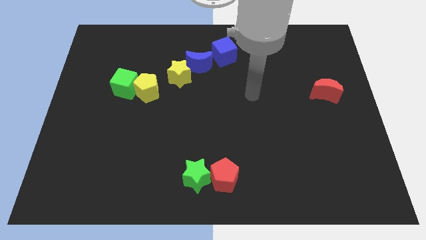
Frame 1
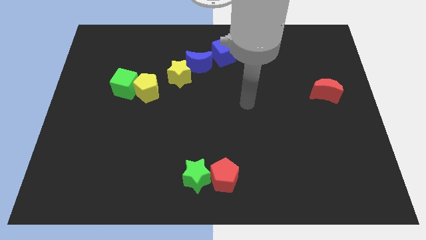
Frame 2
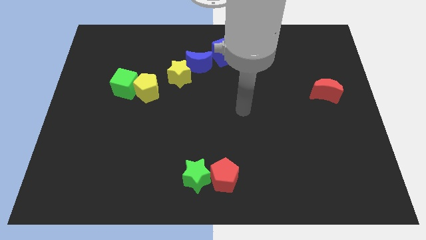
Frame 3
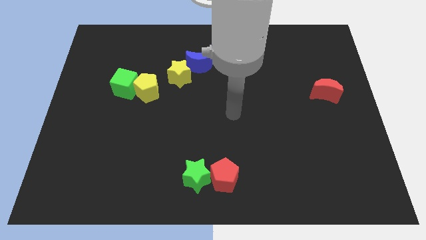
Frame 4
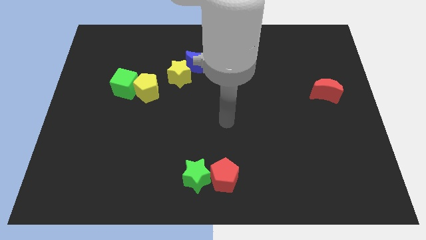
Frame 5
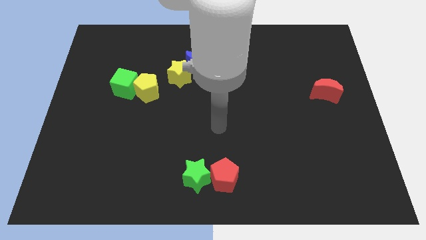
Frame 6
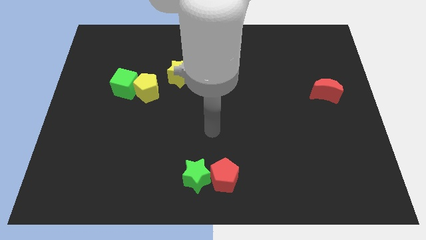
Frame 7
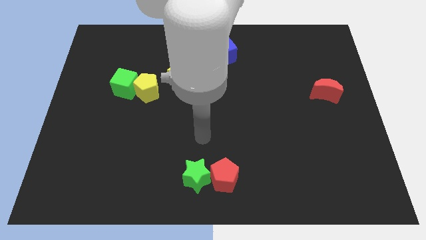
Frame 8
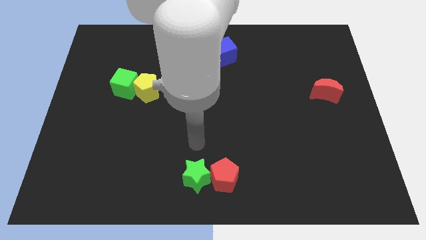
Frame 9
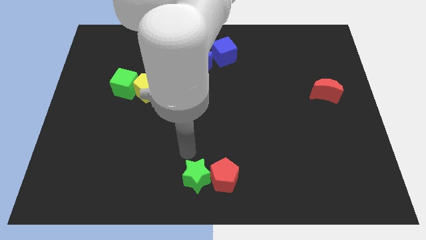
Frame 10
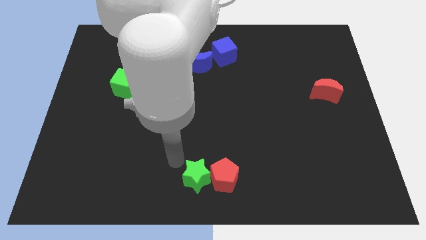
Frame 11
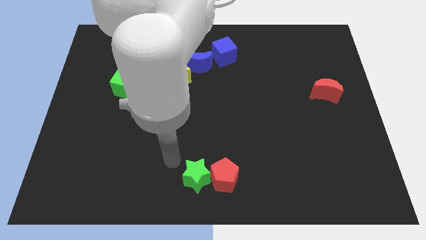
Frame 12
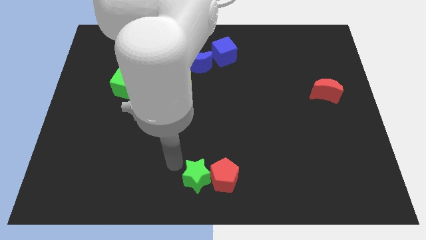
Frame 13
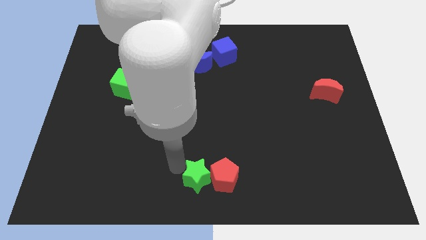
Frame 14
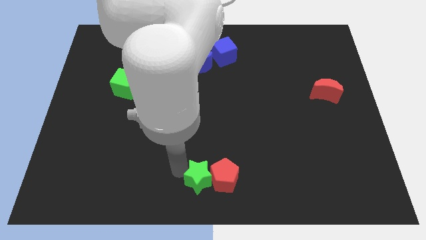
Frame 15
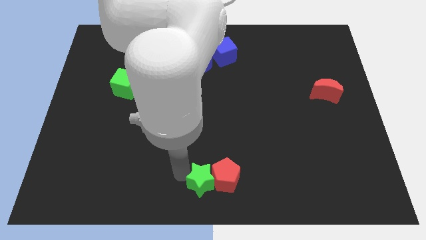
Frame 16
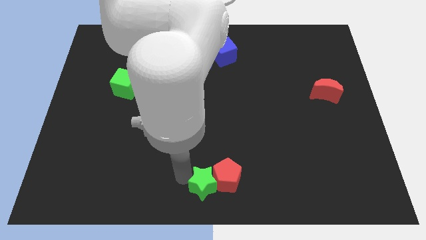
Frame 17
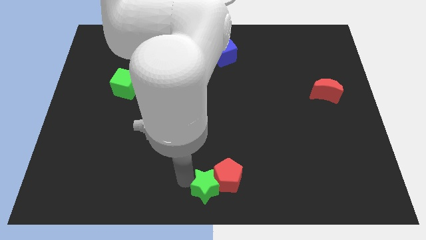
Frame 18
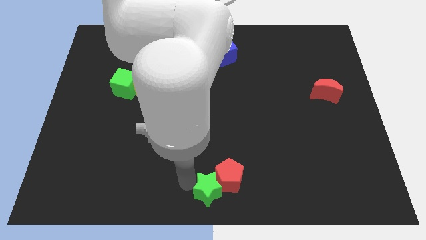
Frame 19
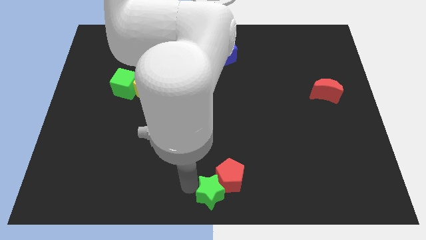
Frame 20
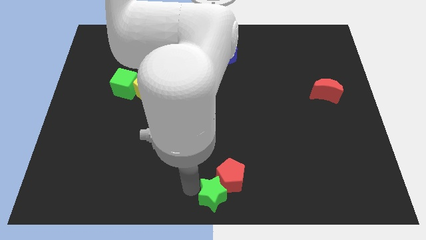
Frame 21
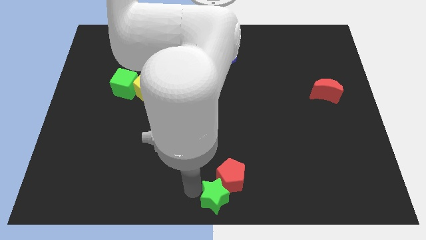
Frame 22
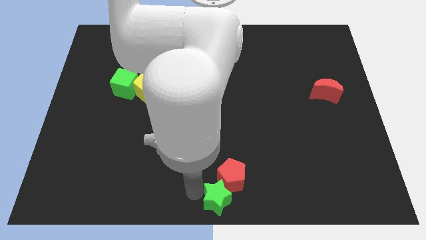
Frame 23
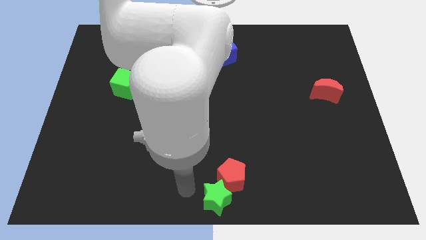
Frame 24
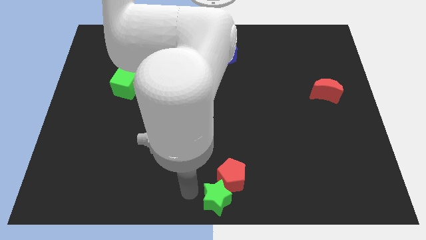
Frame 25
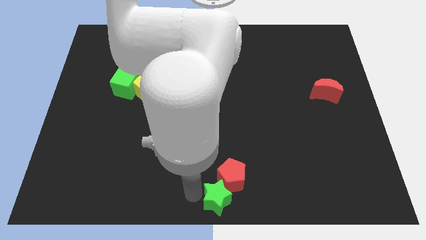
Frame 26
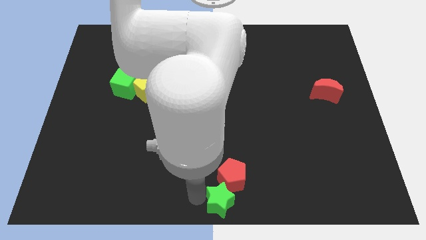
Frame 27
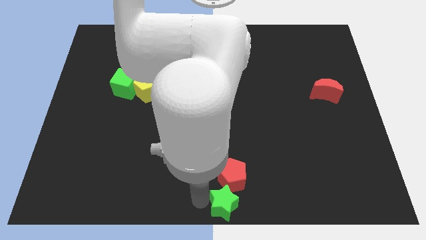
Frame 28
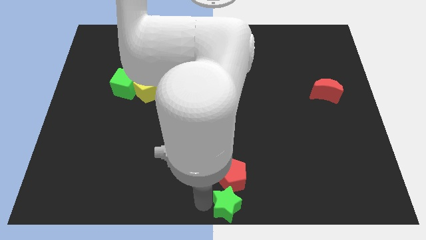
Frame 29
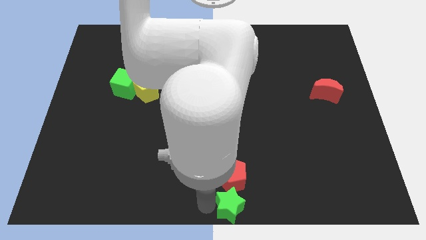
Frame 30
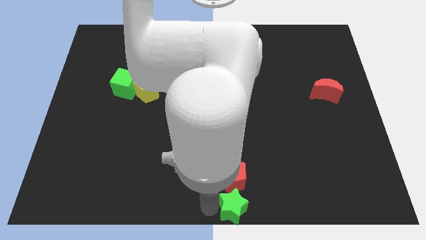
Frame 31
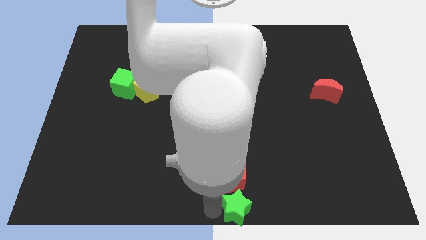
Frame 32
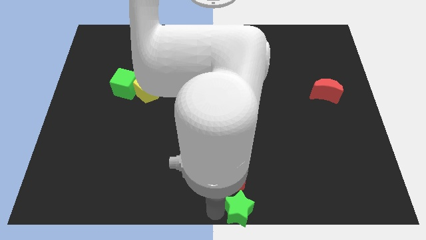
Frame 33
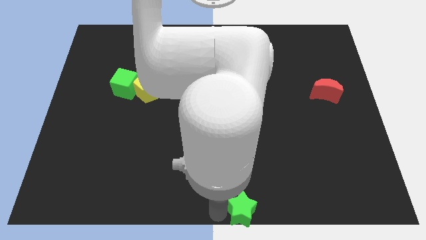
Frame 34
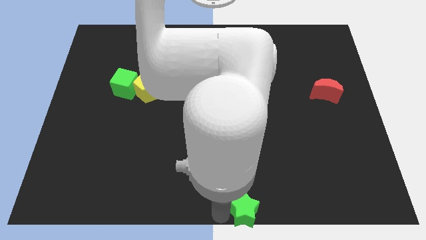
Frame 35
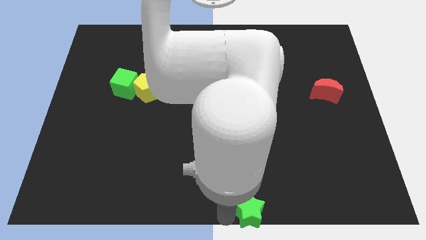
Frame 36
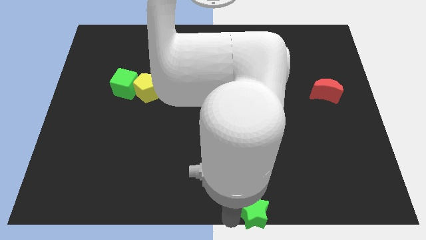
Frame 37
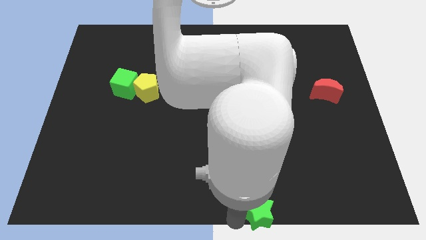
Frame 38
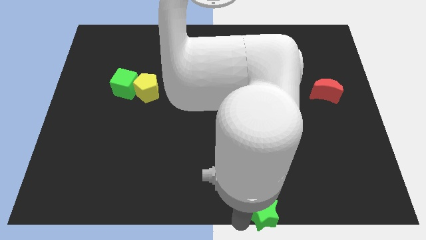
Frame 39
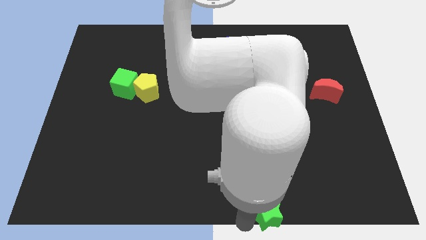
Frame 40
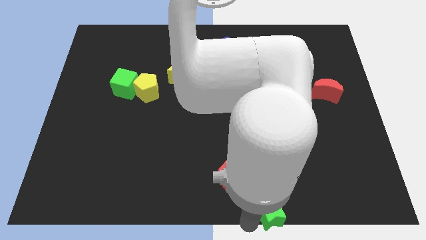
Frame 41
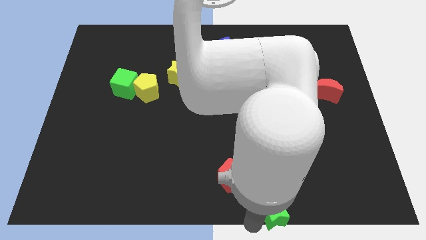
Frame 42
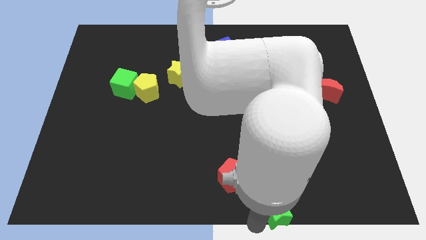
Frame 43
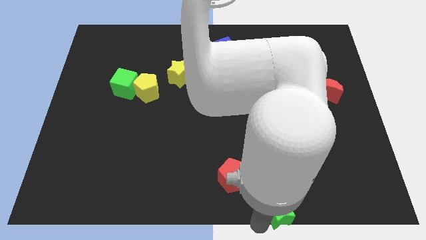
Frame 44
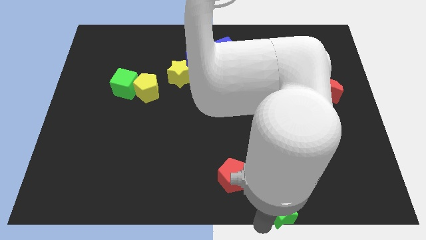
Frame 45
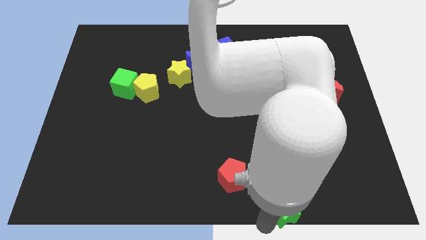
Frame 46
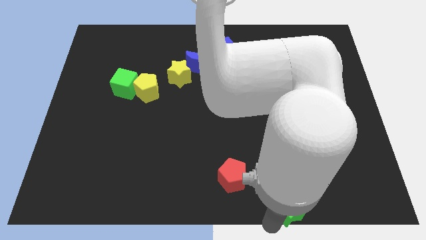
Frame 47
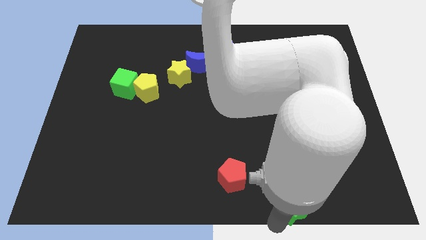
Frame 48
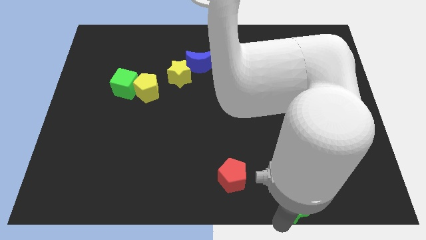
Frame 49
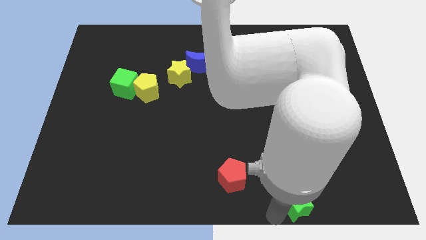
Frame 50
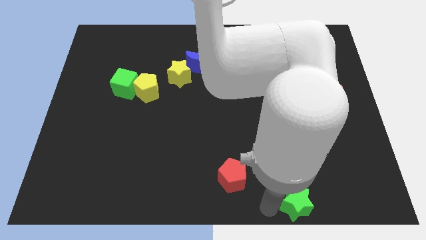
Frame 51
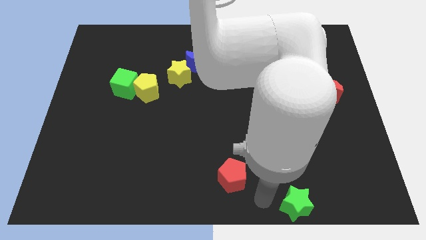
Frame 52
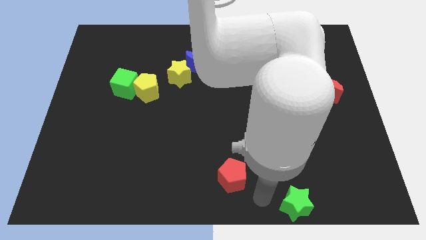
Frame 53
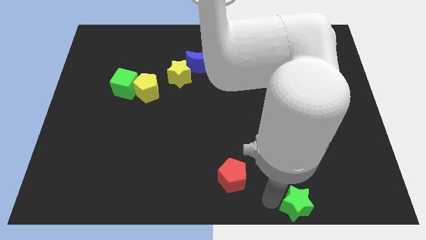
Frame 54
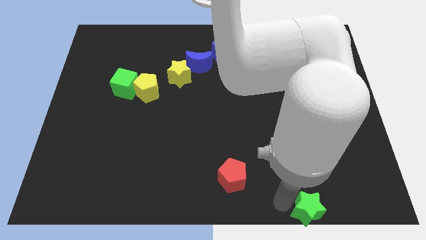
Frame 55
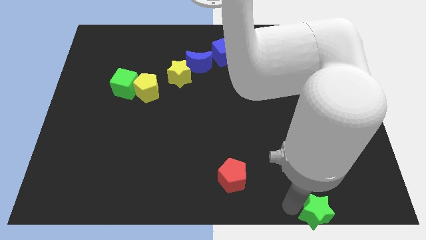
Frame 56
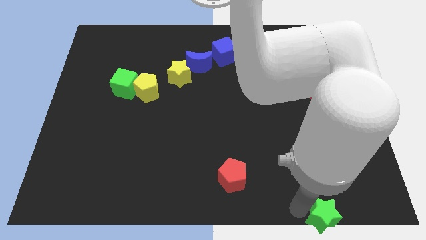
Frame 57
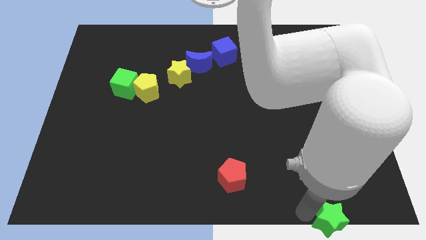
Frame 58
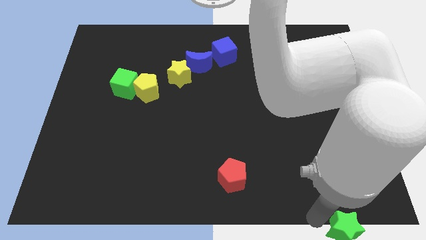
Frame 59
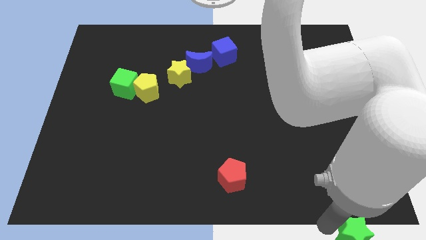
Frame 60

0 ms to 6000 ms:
slide the green star to the bottom right corner

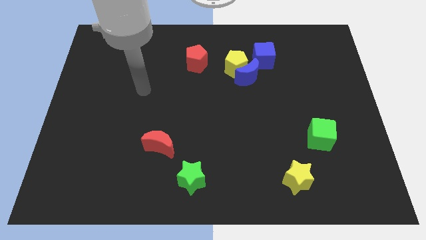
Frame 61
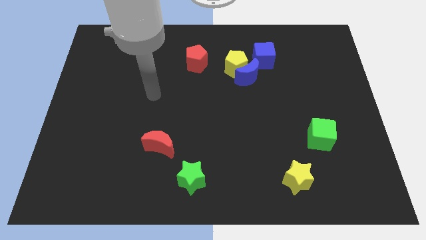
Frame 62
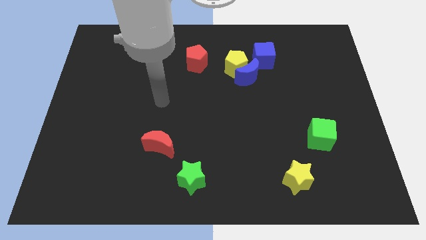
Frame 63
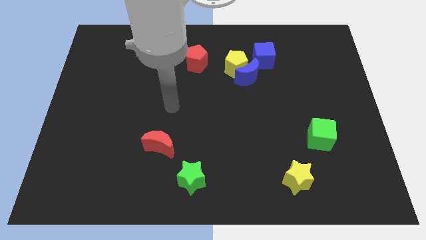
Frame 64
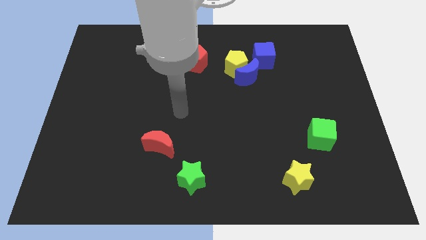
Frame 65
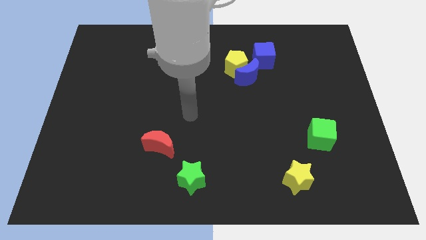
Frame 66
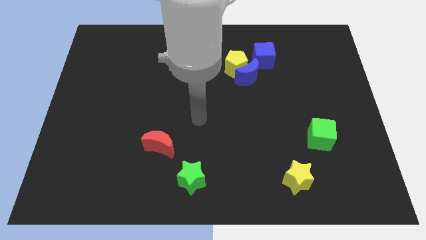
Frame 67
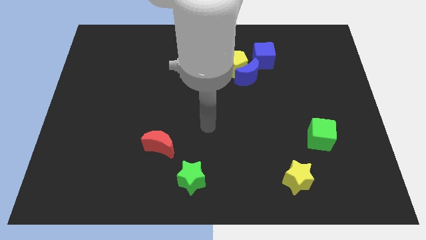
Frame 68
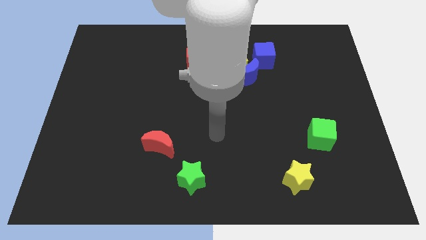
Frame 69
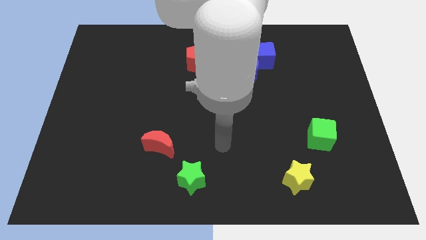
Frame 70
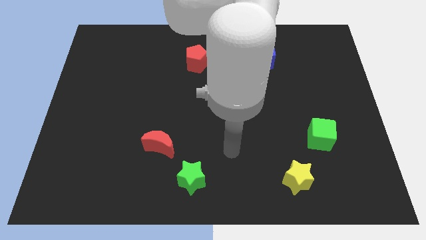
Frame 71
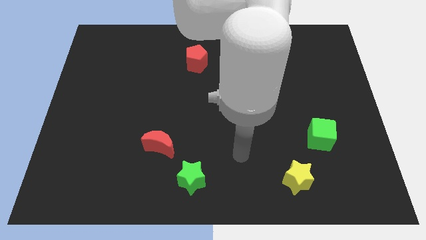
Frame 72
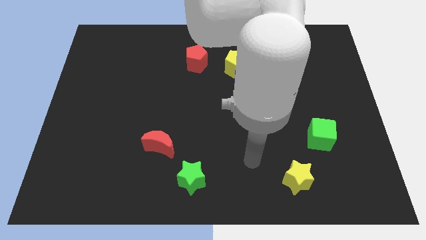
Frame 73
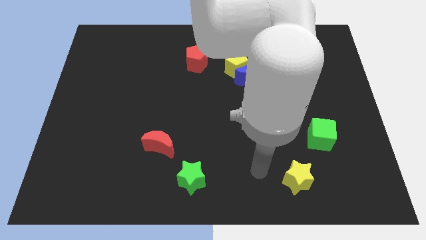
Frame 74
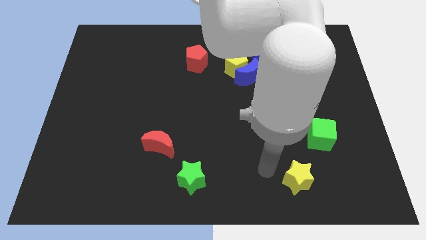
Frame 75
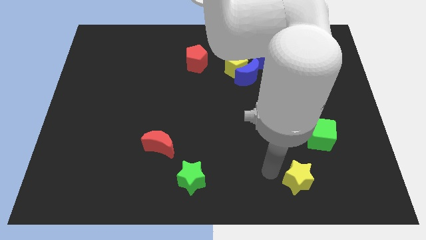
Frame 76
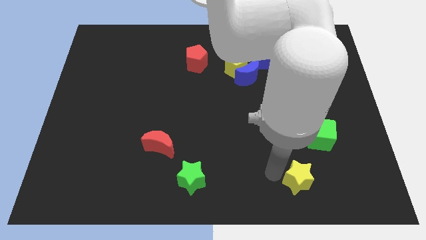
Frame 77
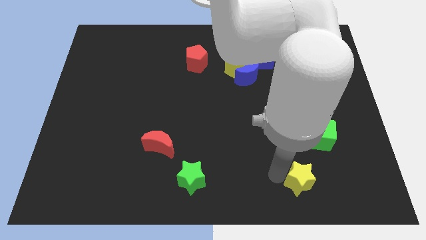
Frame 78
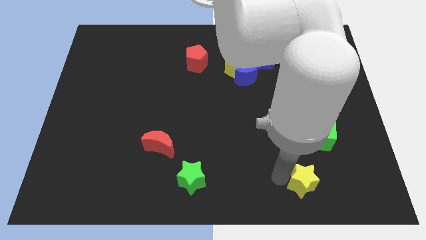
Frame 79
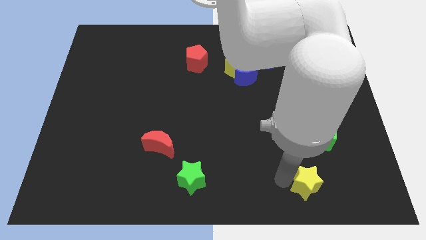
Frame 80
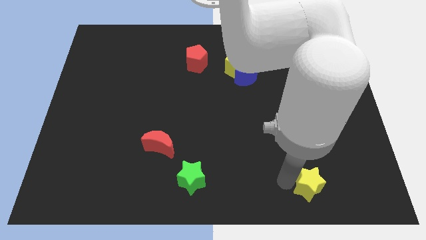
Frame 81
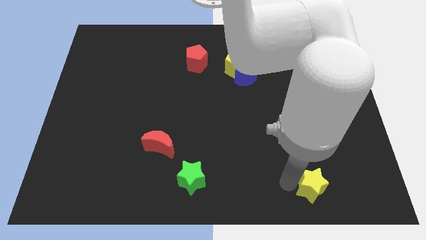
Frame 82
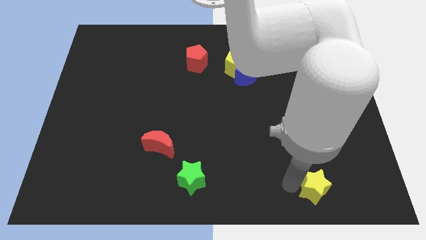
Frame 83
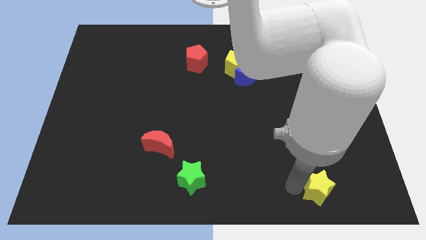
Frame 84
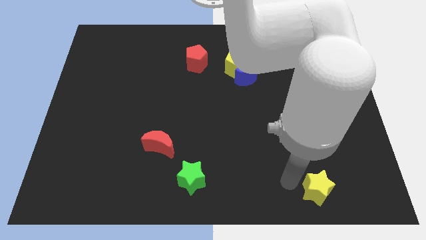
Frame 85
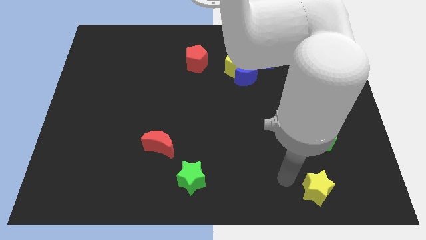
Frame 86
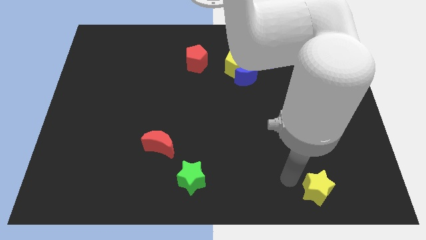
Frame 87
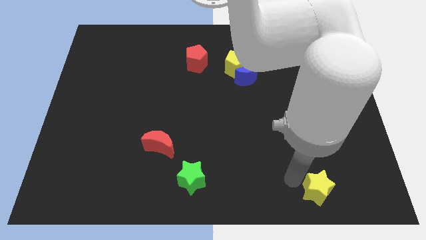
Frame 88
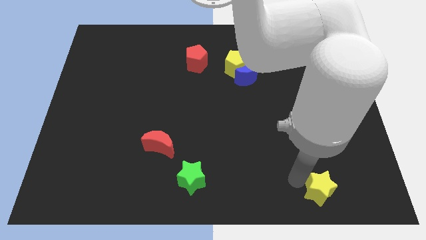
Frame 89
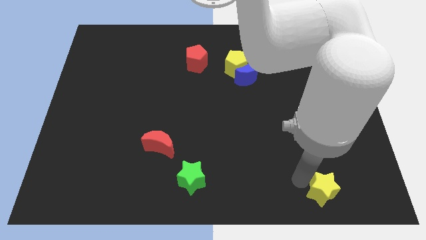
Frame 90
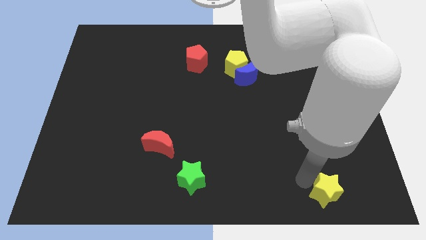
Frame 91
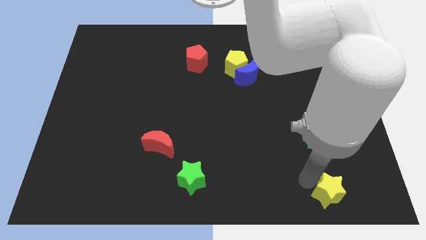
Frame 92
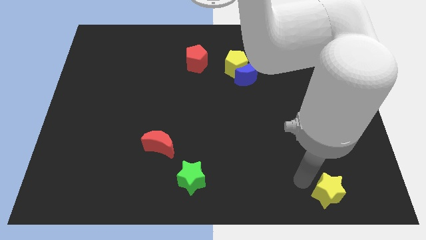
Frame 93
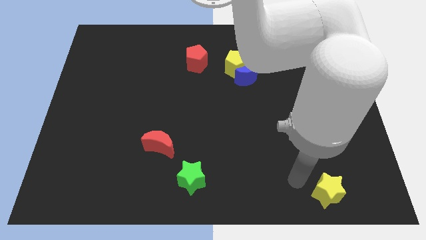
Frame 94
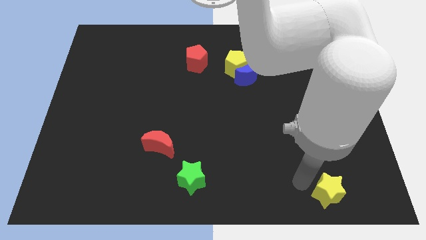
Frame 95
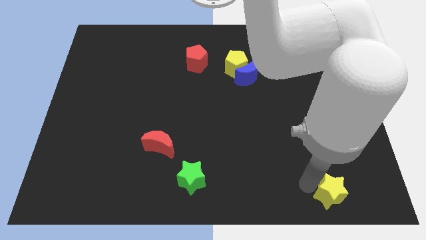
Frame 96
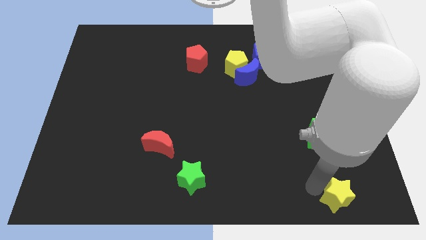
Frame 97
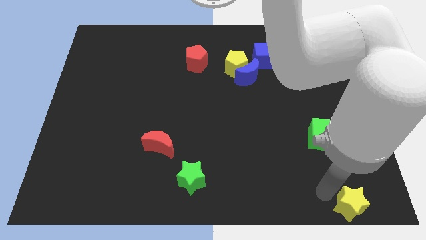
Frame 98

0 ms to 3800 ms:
push the yellow star to the bottom right
